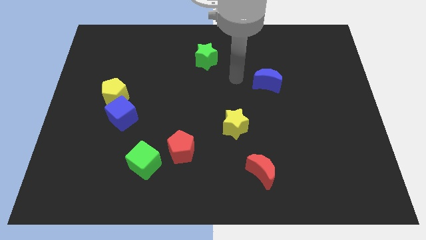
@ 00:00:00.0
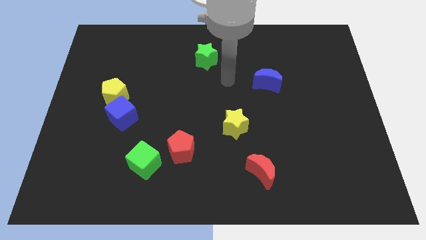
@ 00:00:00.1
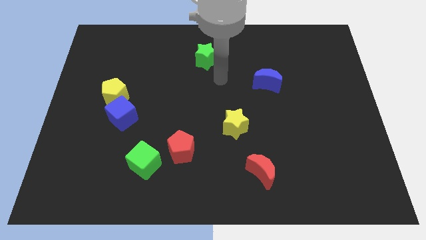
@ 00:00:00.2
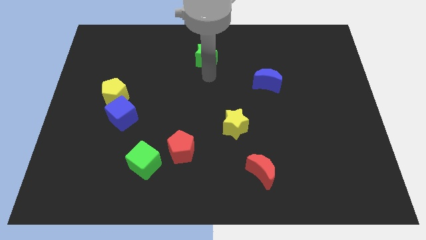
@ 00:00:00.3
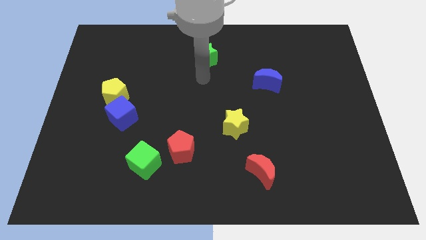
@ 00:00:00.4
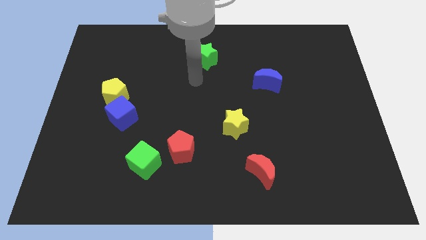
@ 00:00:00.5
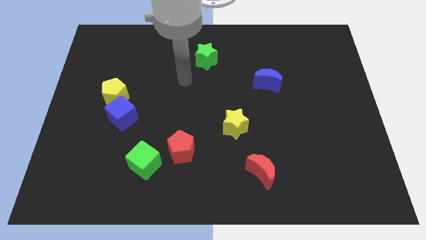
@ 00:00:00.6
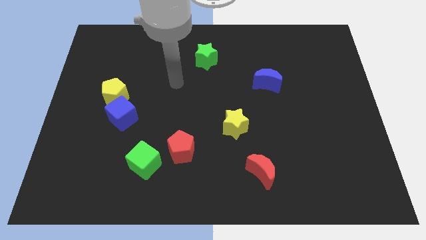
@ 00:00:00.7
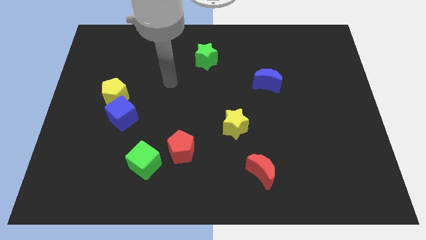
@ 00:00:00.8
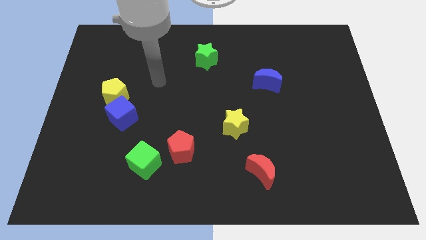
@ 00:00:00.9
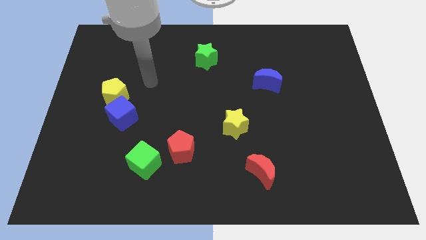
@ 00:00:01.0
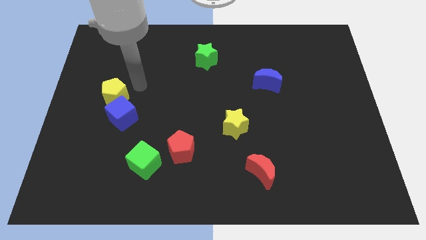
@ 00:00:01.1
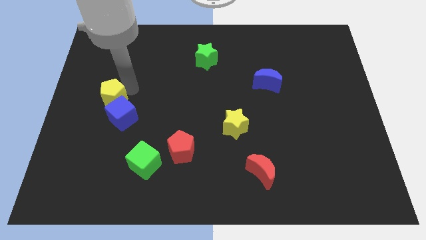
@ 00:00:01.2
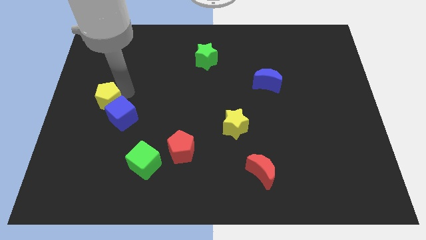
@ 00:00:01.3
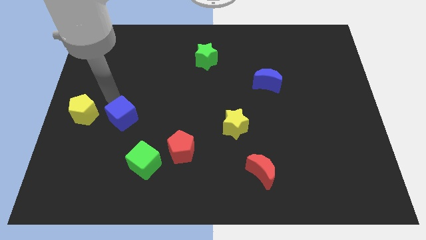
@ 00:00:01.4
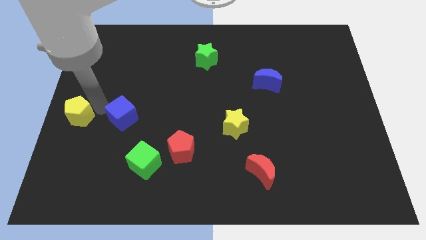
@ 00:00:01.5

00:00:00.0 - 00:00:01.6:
move the blue cube away from the yellow pentagon

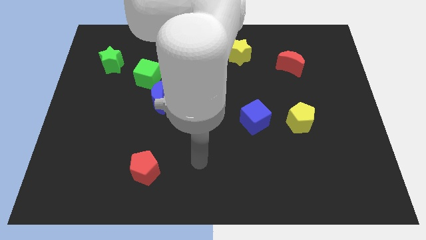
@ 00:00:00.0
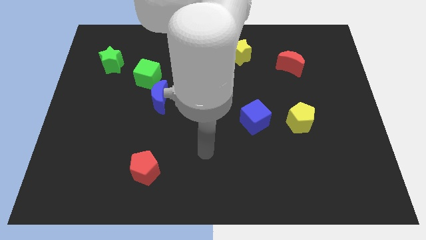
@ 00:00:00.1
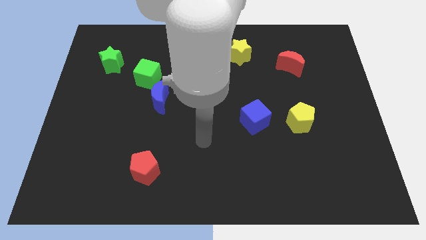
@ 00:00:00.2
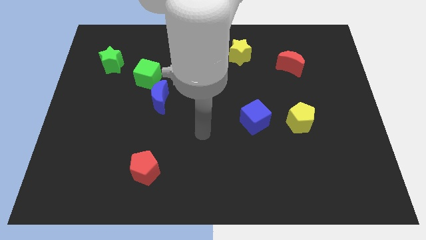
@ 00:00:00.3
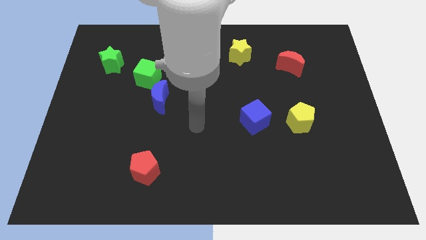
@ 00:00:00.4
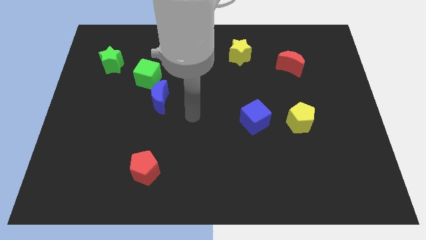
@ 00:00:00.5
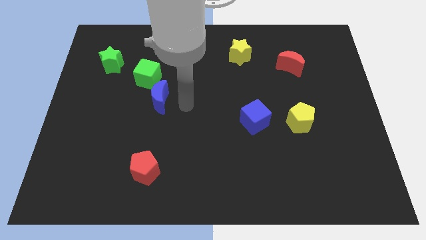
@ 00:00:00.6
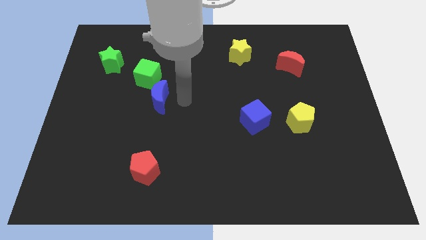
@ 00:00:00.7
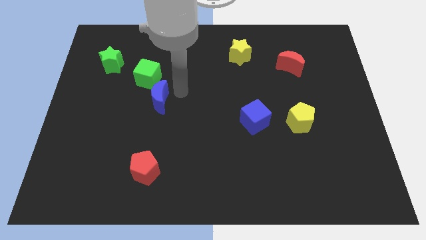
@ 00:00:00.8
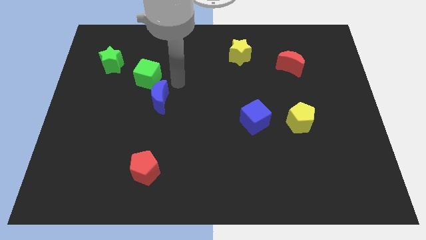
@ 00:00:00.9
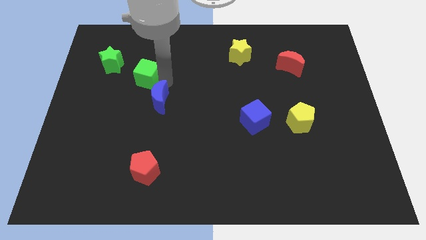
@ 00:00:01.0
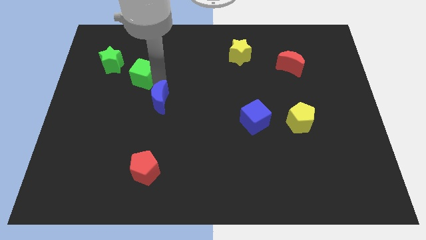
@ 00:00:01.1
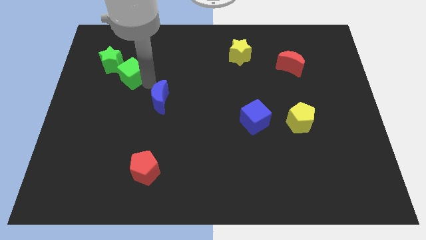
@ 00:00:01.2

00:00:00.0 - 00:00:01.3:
move the blue moon away from the green cube

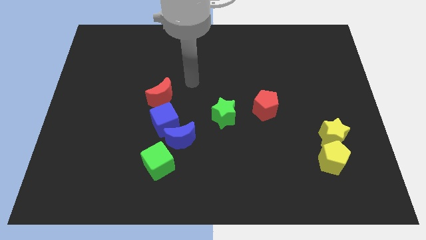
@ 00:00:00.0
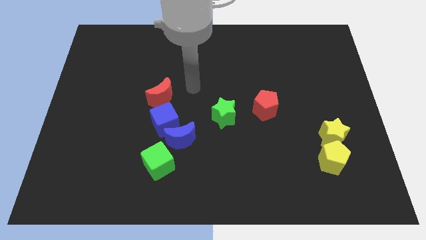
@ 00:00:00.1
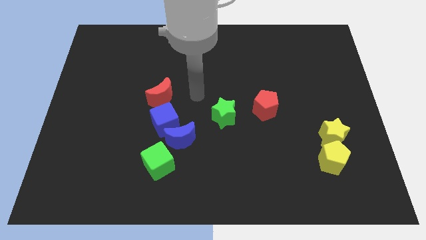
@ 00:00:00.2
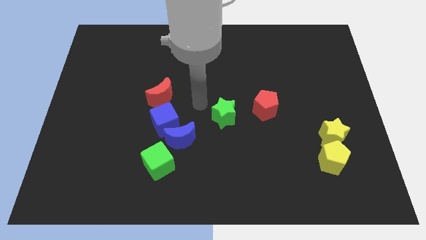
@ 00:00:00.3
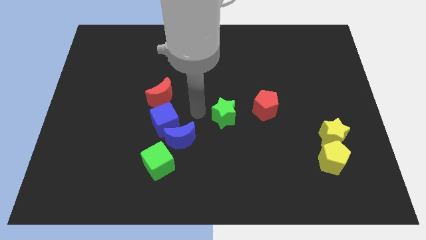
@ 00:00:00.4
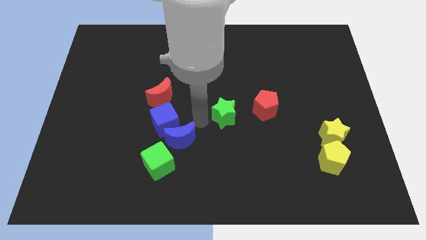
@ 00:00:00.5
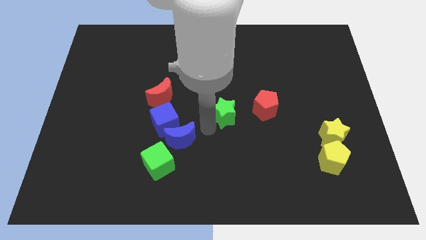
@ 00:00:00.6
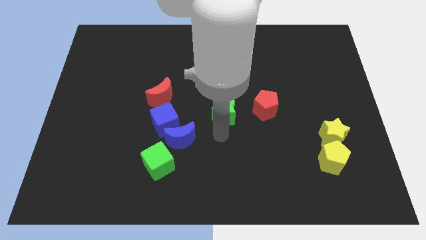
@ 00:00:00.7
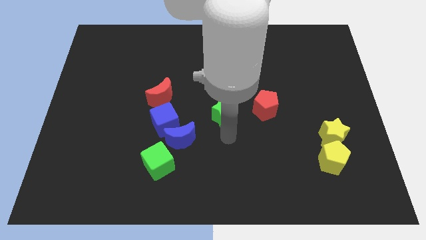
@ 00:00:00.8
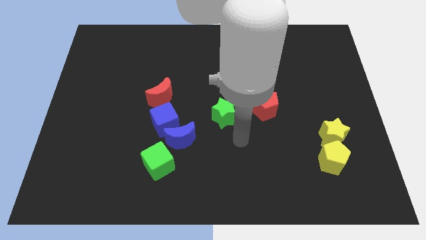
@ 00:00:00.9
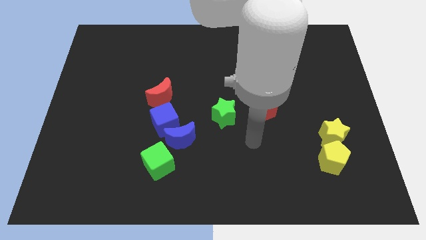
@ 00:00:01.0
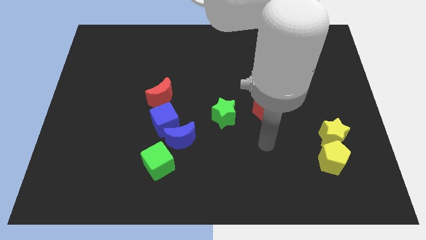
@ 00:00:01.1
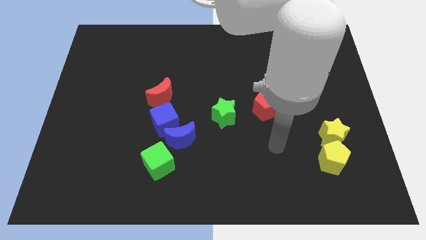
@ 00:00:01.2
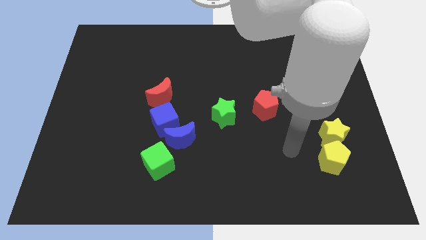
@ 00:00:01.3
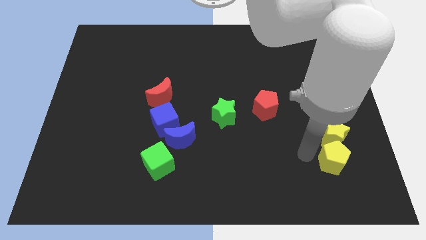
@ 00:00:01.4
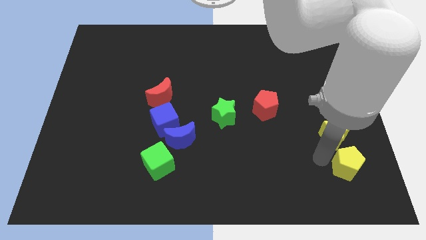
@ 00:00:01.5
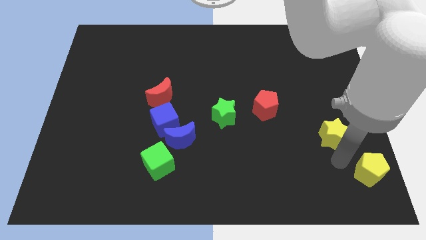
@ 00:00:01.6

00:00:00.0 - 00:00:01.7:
move the yellow star away from the yellow pentagon

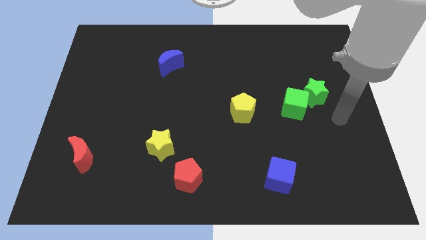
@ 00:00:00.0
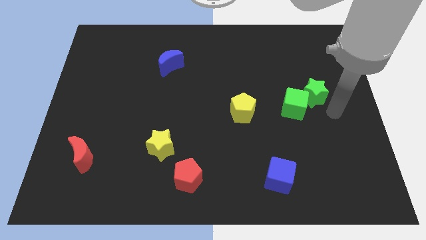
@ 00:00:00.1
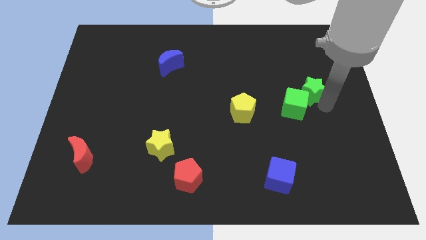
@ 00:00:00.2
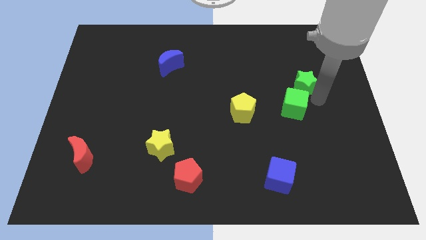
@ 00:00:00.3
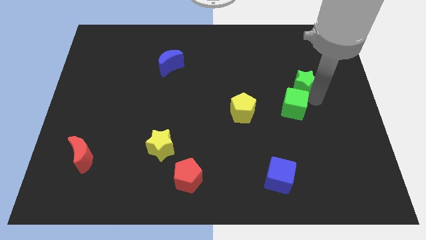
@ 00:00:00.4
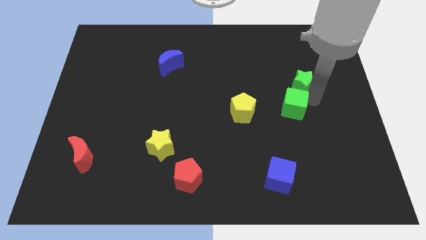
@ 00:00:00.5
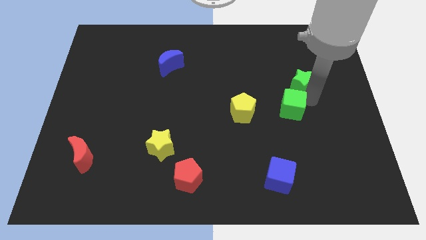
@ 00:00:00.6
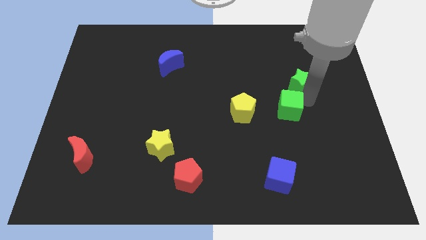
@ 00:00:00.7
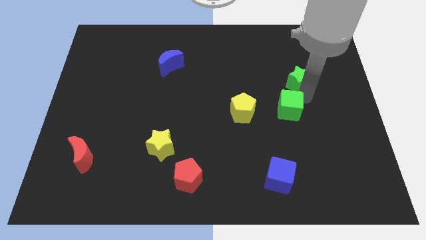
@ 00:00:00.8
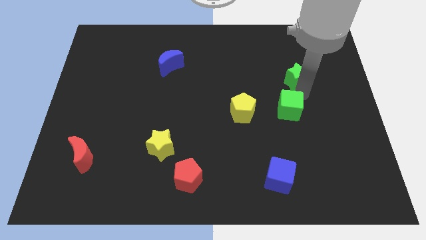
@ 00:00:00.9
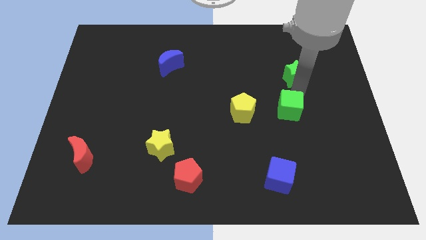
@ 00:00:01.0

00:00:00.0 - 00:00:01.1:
move the green cube away from the green star

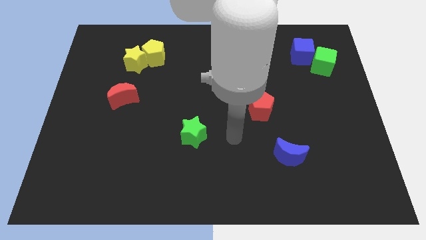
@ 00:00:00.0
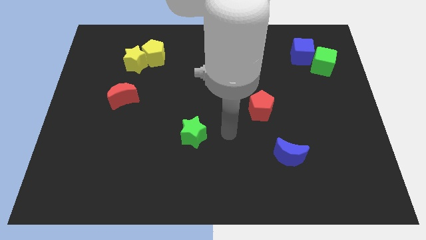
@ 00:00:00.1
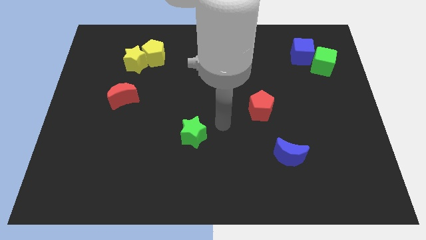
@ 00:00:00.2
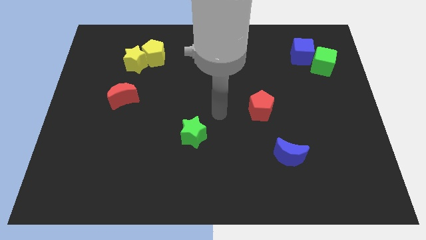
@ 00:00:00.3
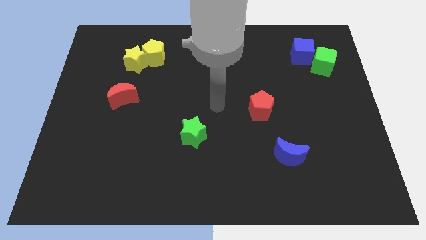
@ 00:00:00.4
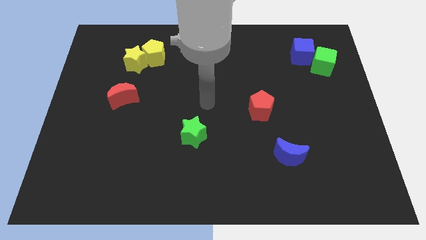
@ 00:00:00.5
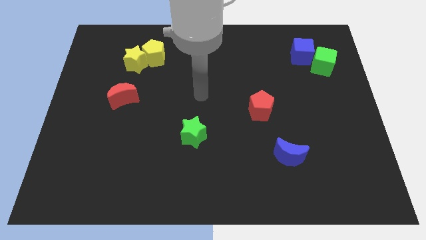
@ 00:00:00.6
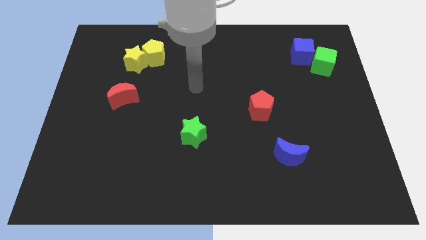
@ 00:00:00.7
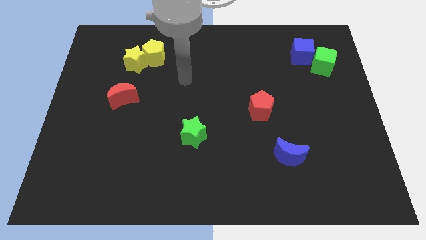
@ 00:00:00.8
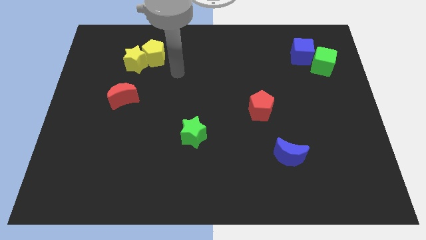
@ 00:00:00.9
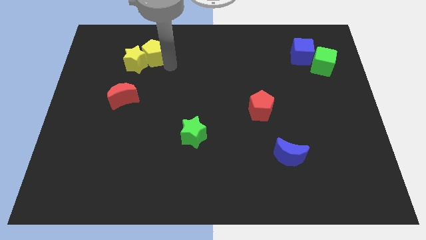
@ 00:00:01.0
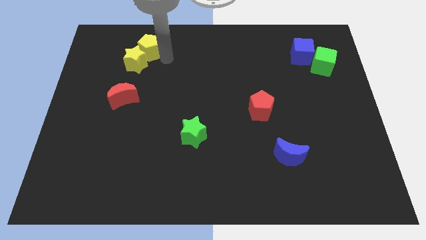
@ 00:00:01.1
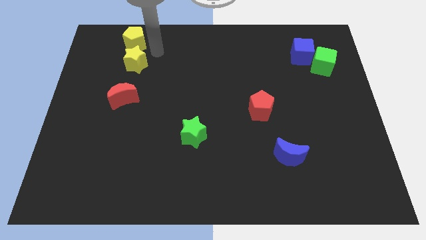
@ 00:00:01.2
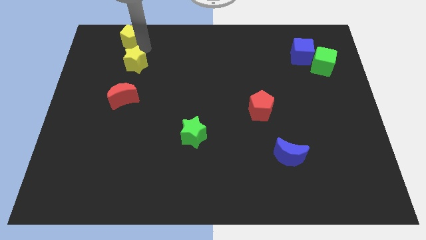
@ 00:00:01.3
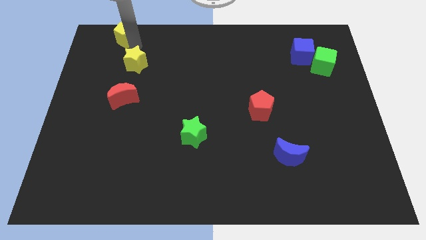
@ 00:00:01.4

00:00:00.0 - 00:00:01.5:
separate the yellow star from the yellow pentagon

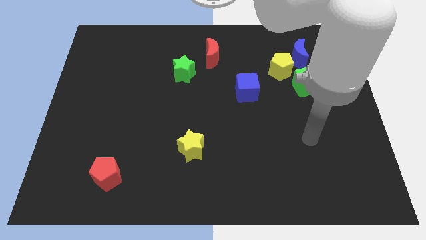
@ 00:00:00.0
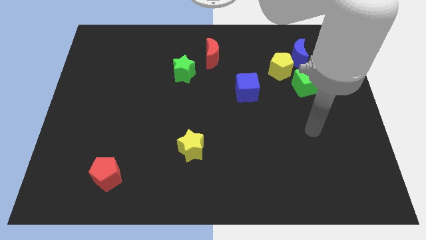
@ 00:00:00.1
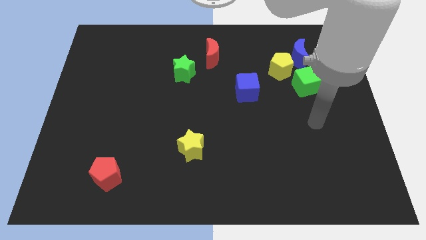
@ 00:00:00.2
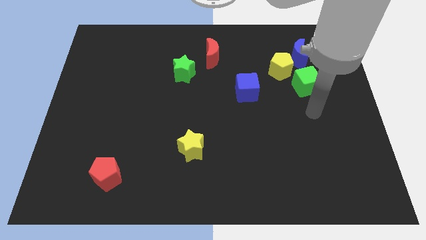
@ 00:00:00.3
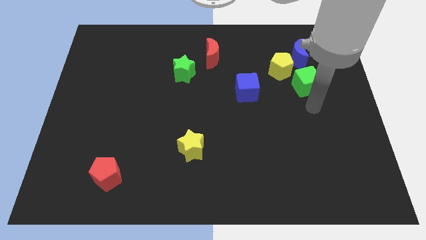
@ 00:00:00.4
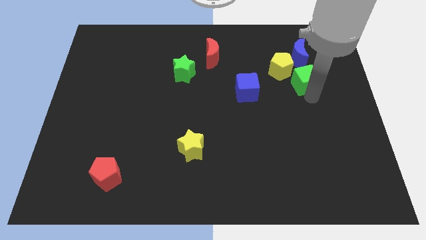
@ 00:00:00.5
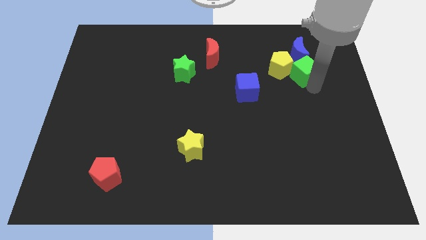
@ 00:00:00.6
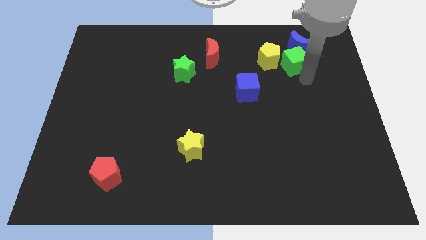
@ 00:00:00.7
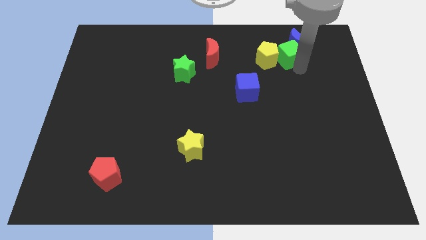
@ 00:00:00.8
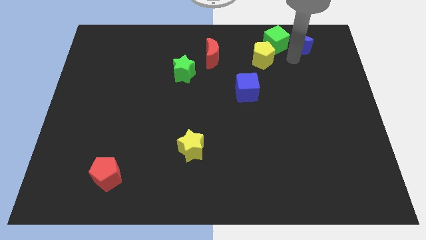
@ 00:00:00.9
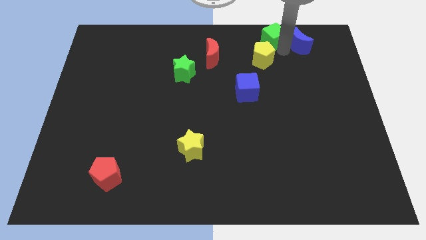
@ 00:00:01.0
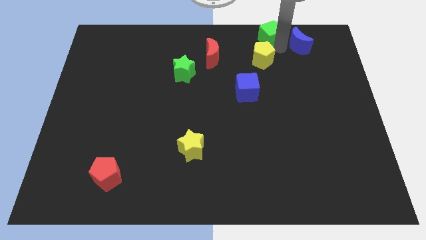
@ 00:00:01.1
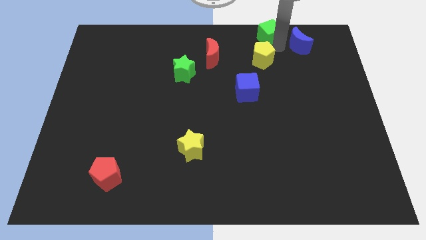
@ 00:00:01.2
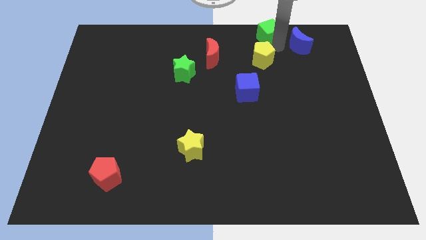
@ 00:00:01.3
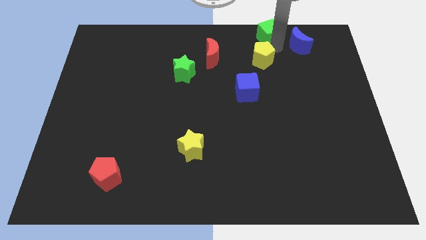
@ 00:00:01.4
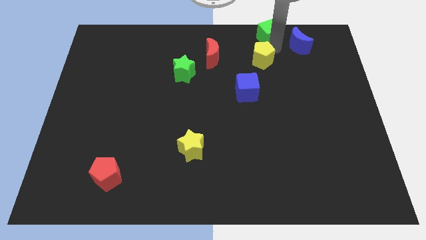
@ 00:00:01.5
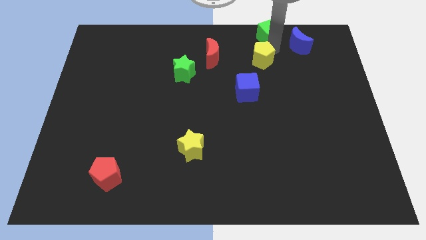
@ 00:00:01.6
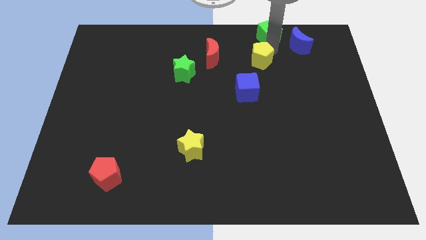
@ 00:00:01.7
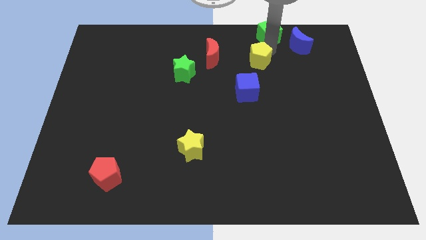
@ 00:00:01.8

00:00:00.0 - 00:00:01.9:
move the yellow pentagon away from the blue moon and green cube
